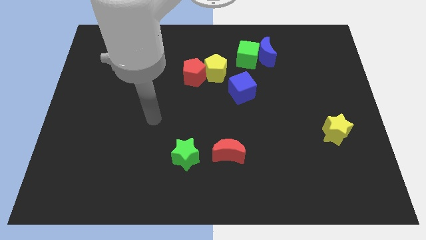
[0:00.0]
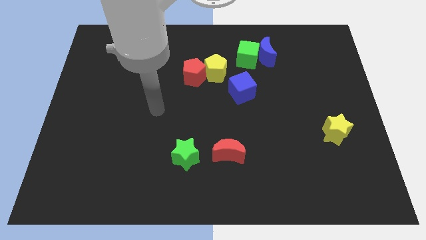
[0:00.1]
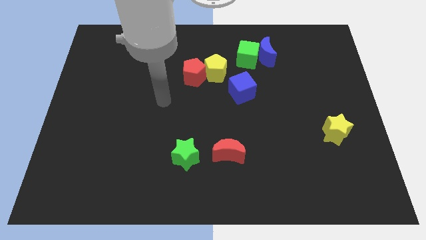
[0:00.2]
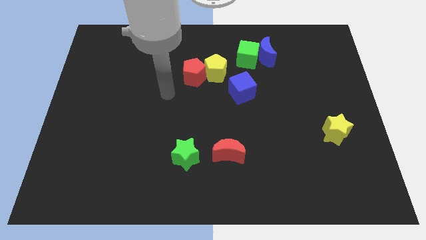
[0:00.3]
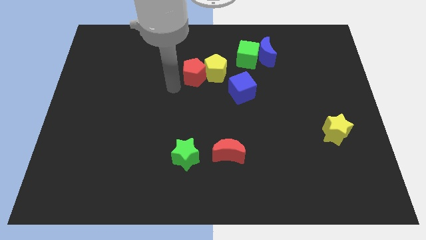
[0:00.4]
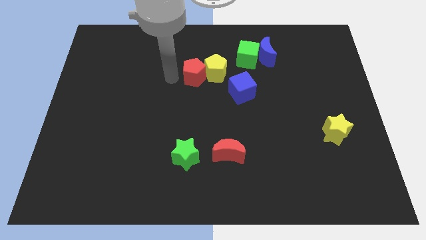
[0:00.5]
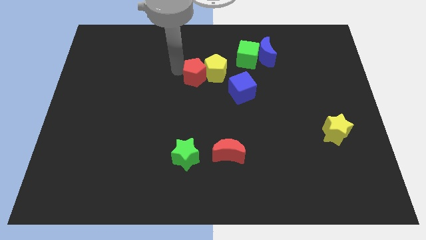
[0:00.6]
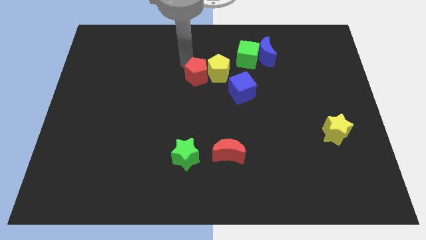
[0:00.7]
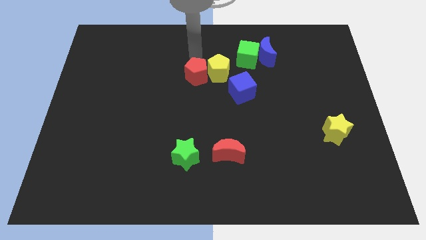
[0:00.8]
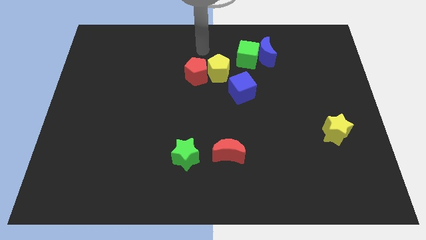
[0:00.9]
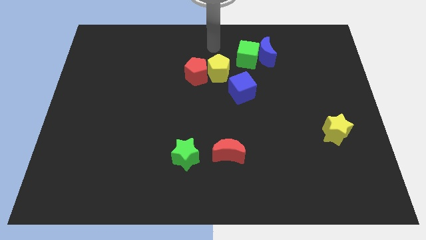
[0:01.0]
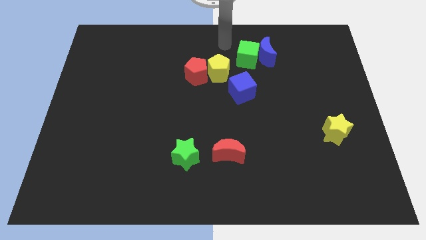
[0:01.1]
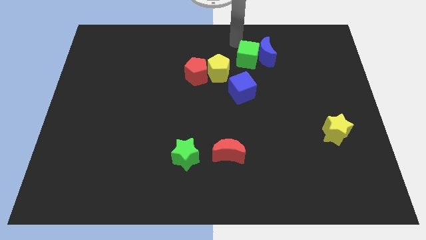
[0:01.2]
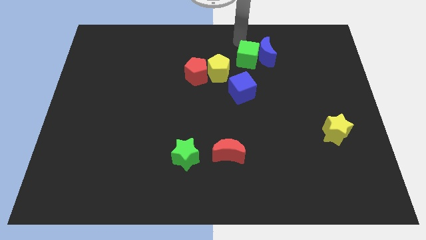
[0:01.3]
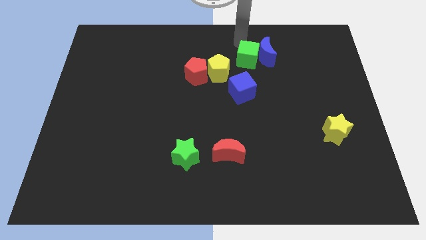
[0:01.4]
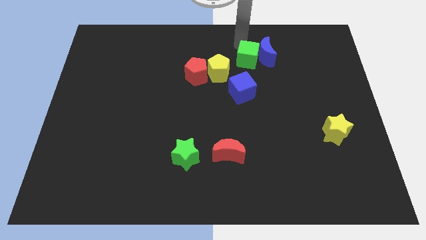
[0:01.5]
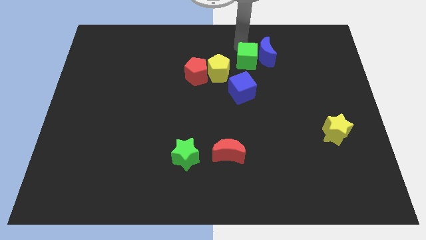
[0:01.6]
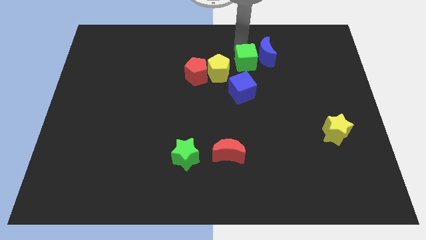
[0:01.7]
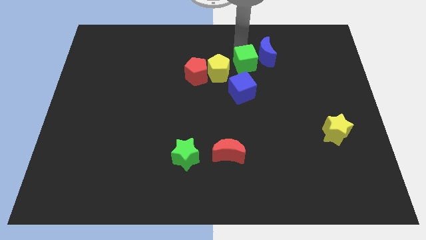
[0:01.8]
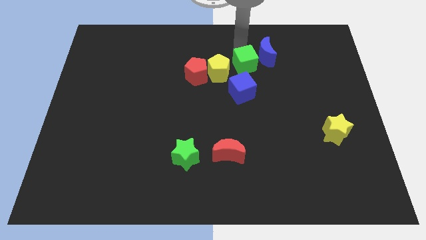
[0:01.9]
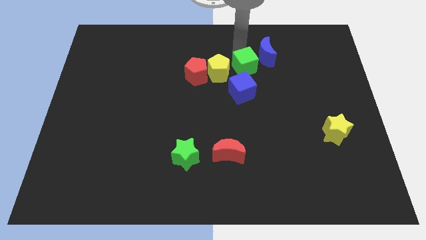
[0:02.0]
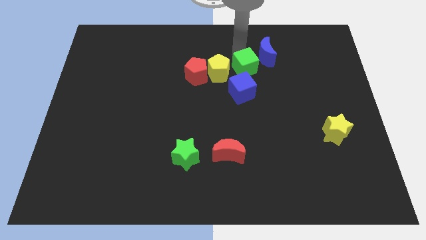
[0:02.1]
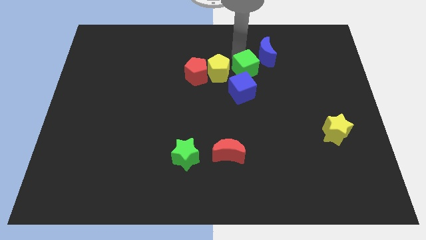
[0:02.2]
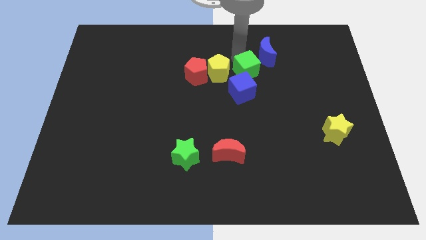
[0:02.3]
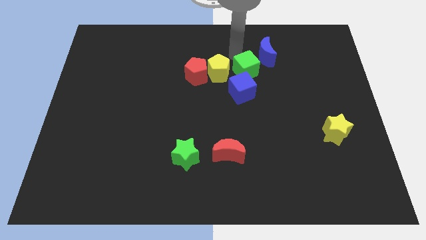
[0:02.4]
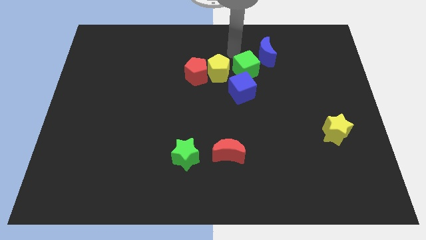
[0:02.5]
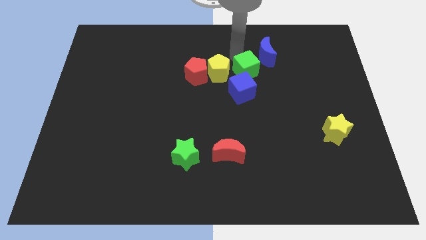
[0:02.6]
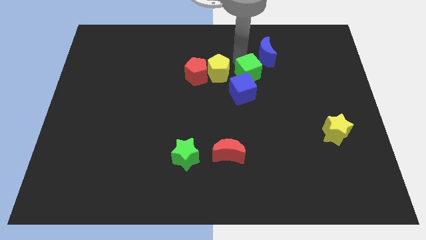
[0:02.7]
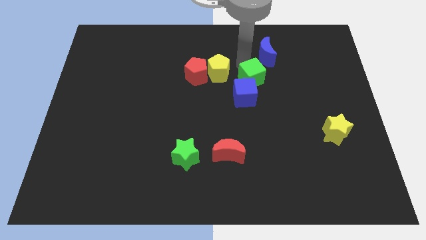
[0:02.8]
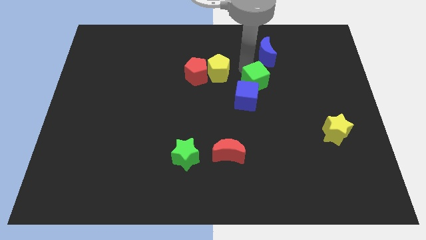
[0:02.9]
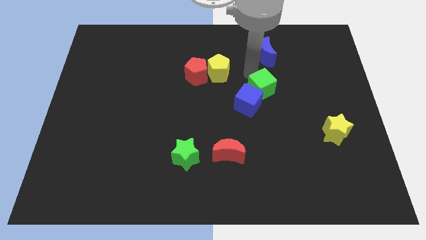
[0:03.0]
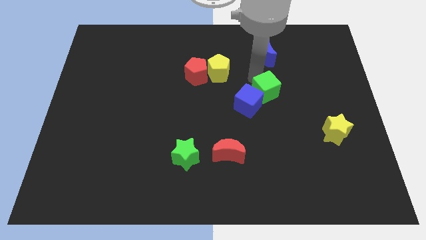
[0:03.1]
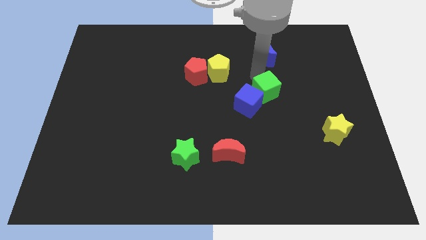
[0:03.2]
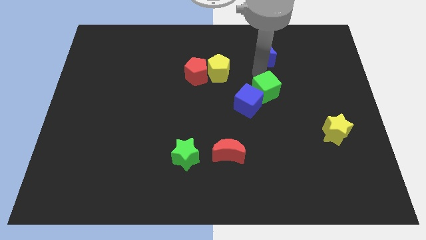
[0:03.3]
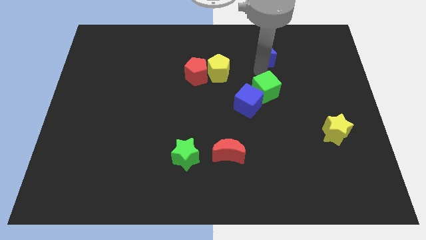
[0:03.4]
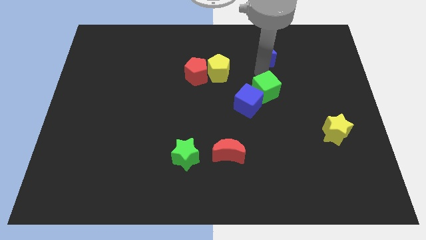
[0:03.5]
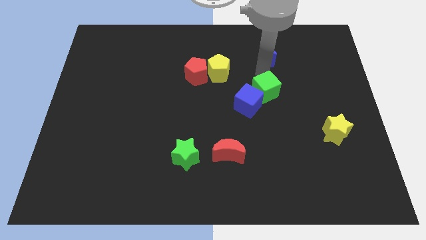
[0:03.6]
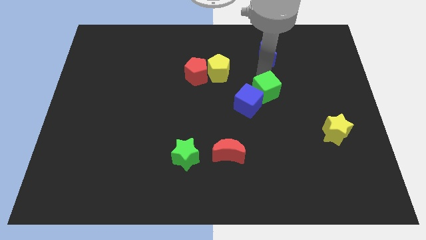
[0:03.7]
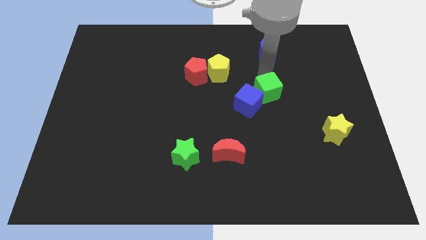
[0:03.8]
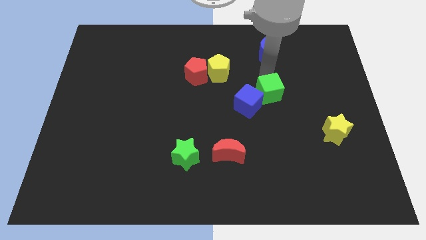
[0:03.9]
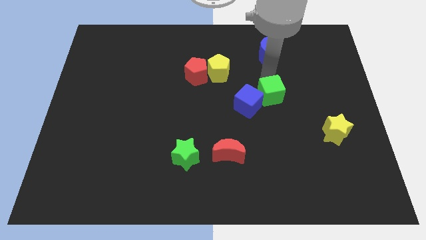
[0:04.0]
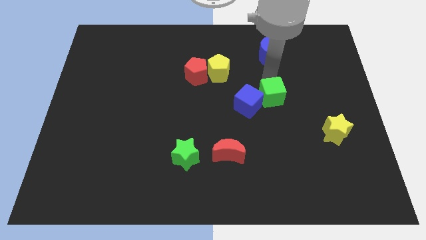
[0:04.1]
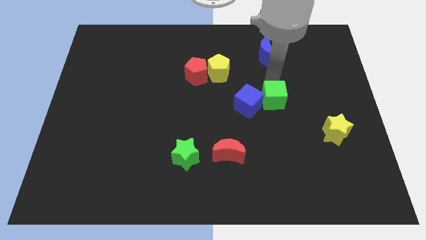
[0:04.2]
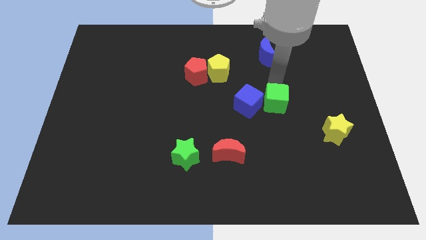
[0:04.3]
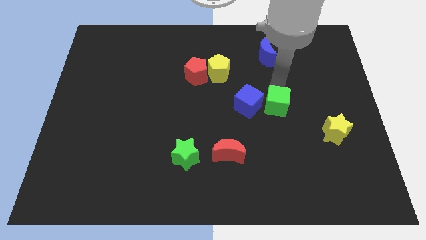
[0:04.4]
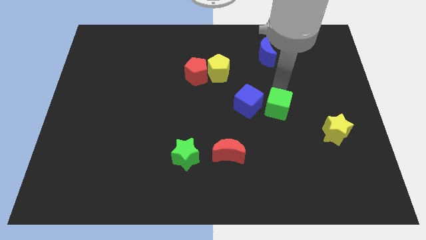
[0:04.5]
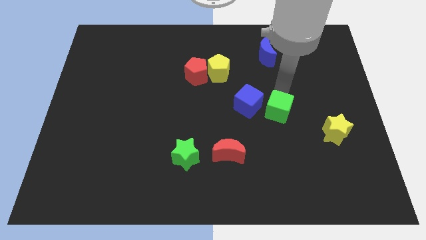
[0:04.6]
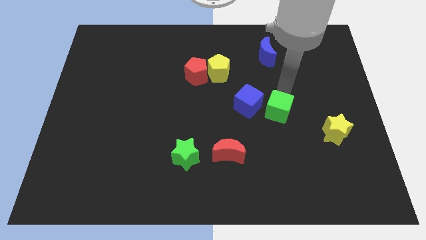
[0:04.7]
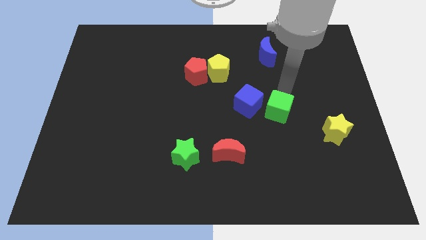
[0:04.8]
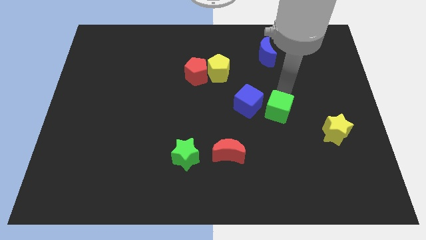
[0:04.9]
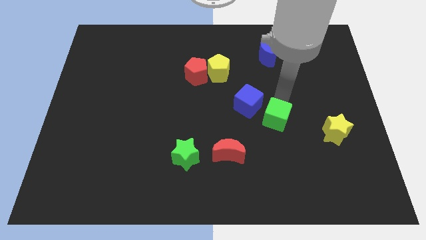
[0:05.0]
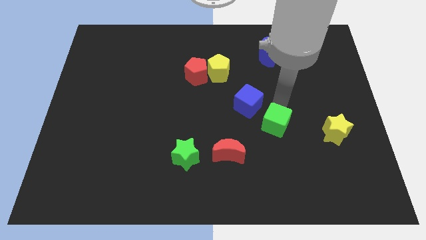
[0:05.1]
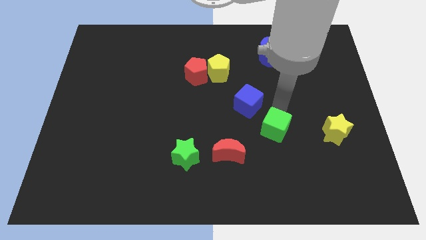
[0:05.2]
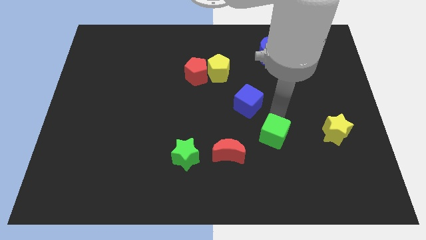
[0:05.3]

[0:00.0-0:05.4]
move the green cube to the right of the red moon

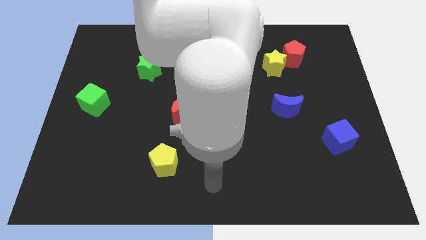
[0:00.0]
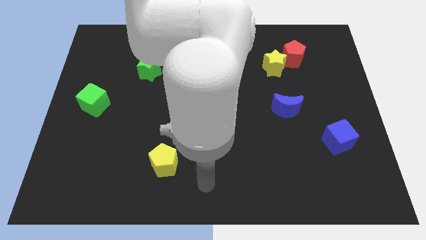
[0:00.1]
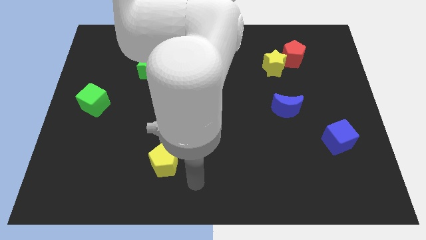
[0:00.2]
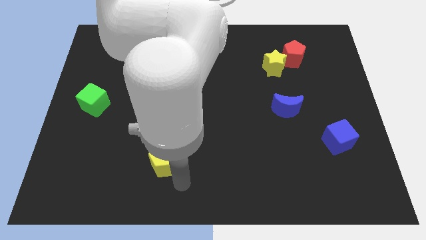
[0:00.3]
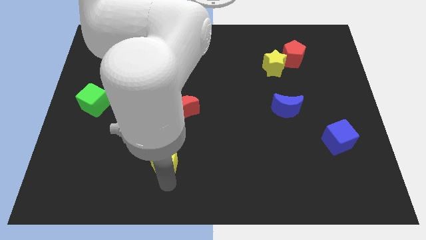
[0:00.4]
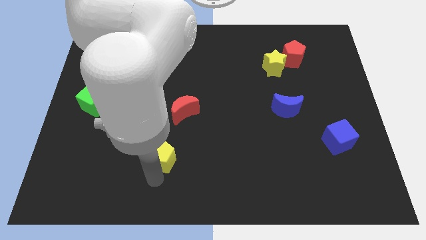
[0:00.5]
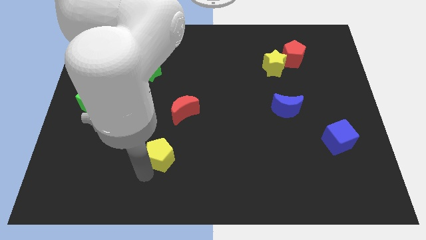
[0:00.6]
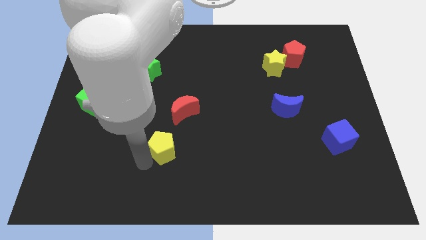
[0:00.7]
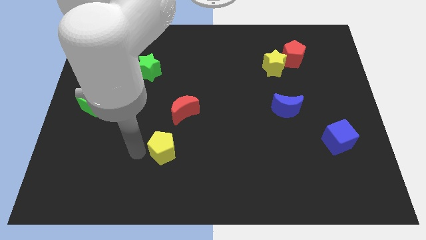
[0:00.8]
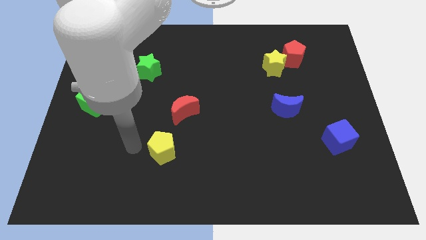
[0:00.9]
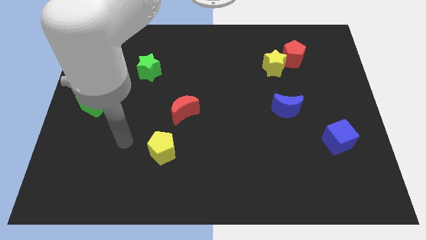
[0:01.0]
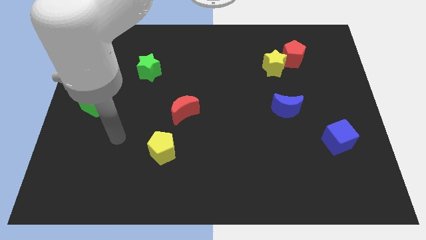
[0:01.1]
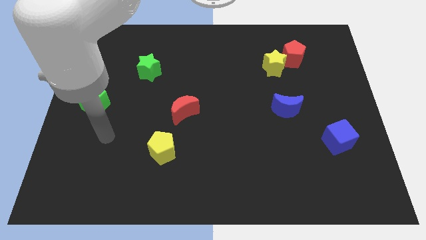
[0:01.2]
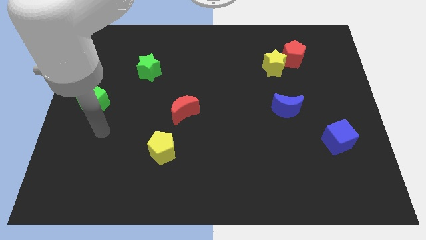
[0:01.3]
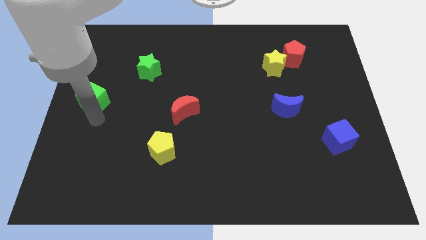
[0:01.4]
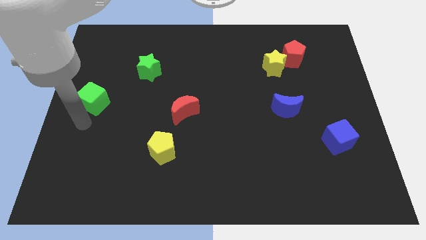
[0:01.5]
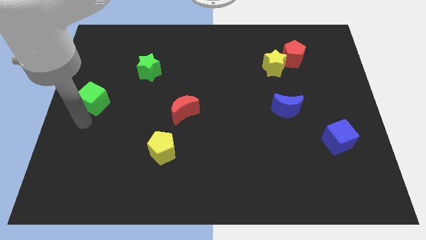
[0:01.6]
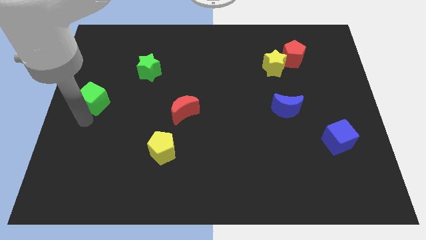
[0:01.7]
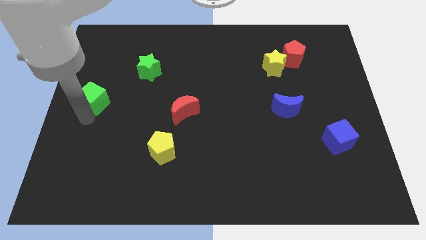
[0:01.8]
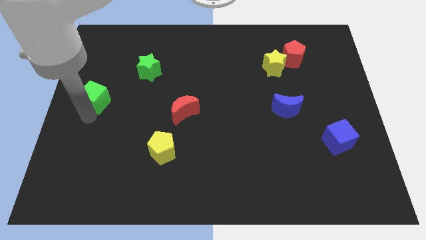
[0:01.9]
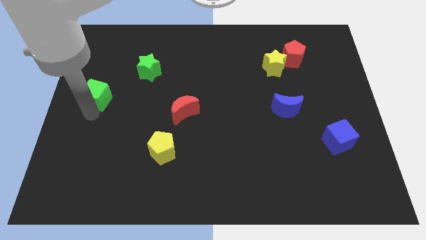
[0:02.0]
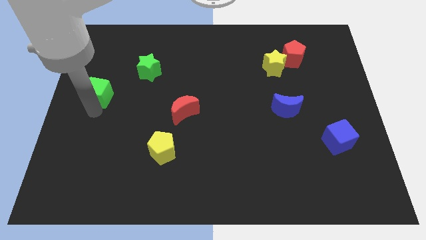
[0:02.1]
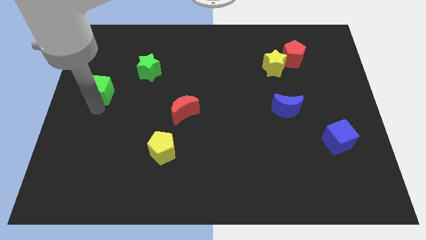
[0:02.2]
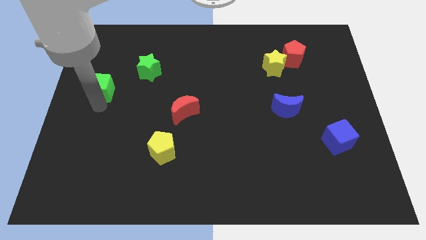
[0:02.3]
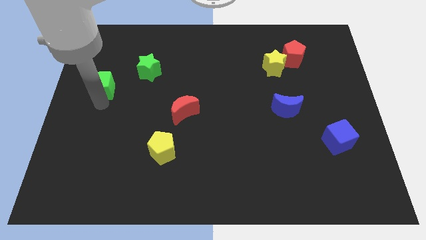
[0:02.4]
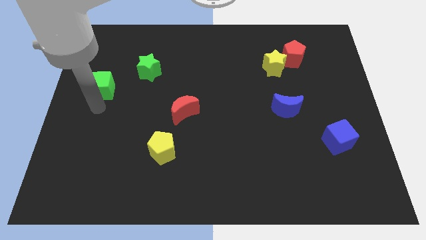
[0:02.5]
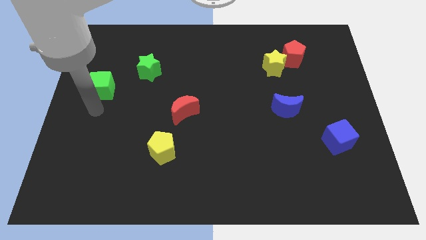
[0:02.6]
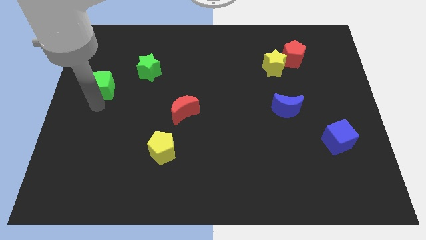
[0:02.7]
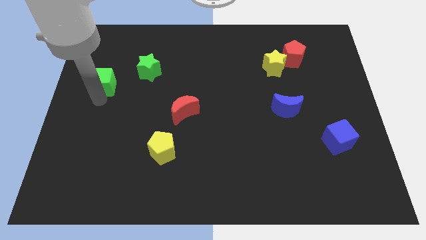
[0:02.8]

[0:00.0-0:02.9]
slide the green cube left of the green star
